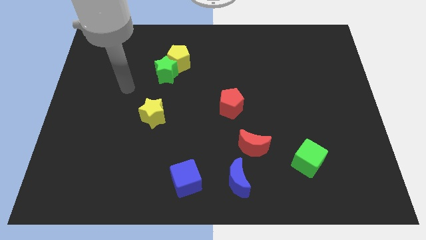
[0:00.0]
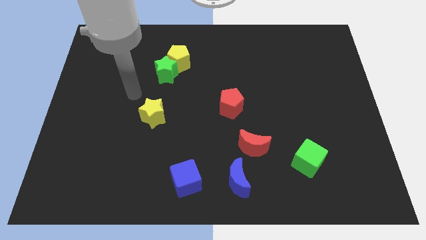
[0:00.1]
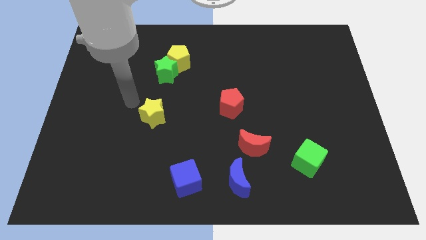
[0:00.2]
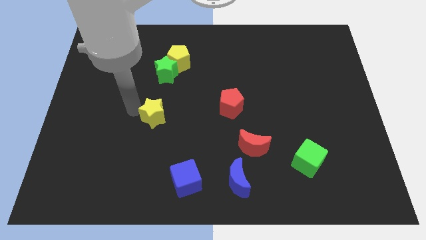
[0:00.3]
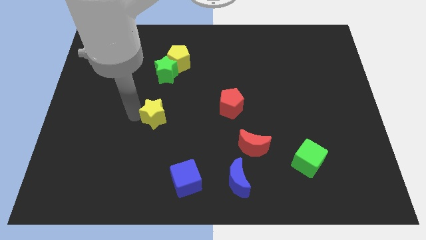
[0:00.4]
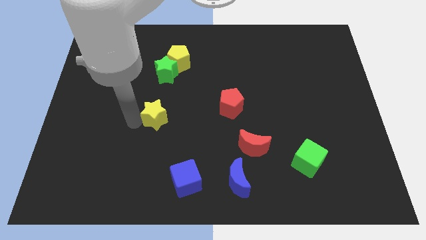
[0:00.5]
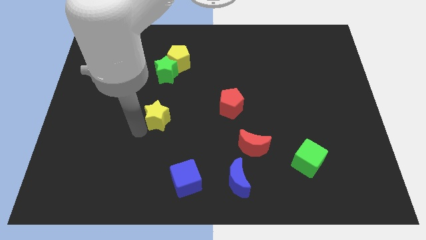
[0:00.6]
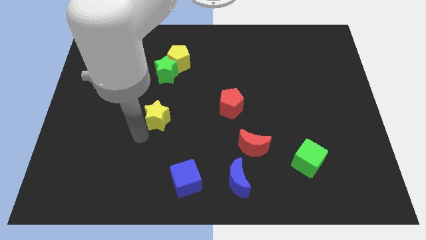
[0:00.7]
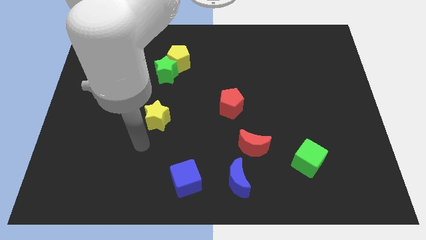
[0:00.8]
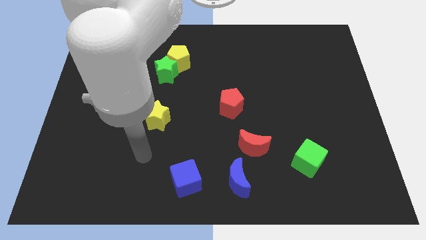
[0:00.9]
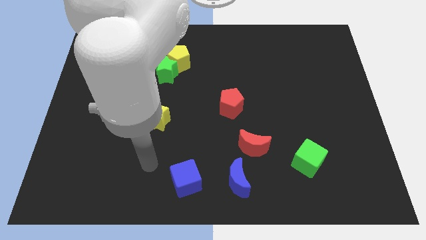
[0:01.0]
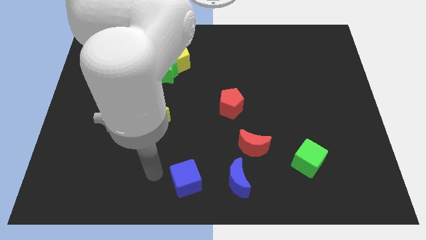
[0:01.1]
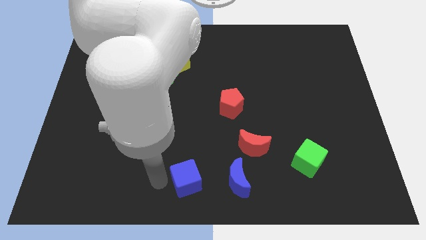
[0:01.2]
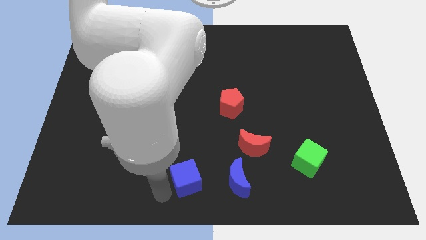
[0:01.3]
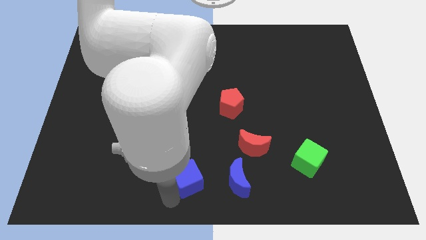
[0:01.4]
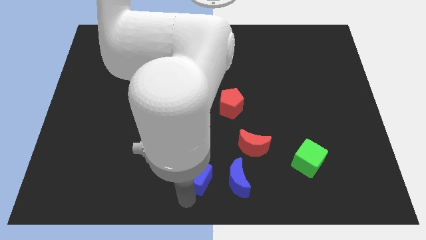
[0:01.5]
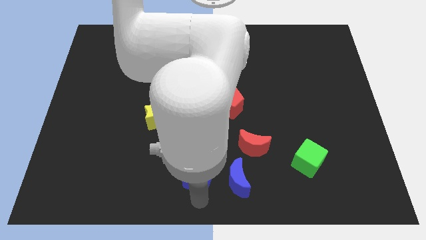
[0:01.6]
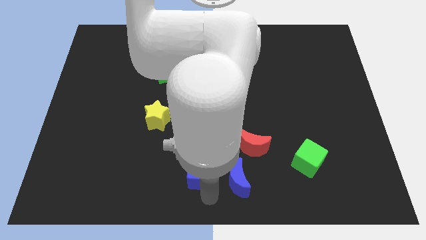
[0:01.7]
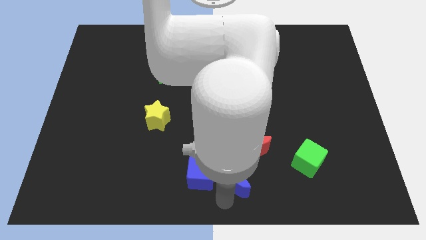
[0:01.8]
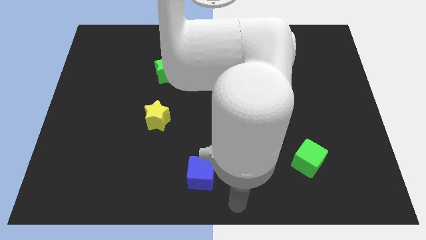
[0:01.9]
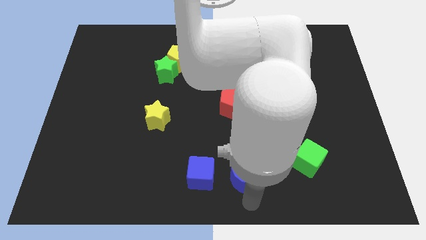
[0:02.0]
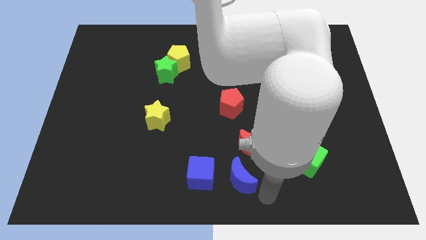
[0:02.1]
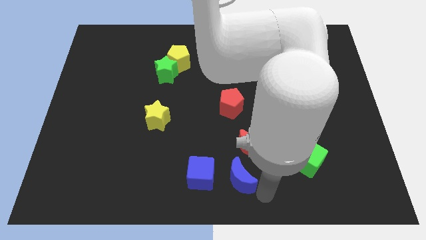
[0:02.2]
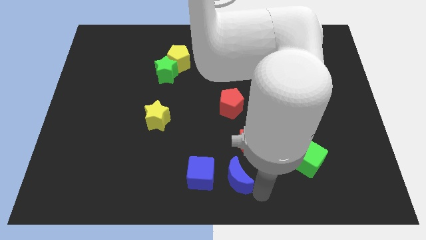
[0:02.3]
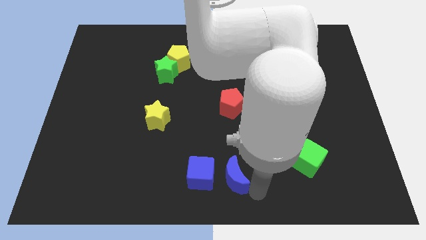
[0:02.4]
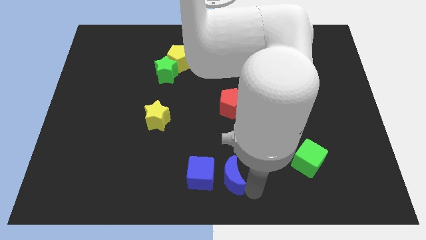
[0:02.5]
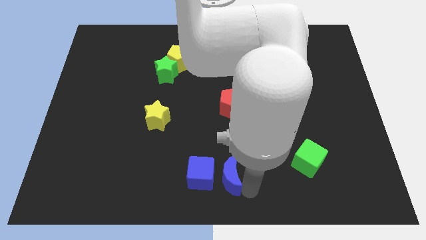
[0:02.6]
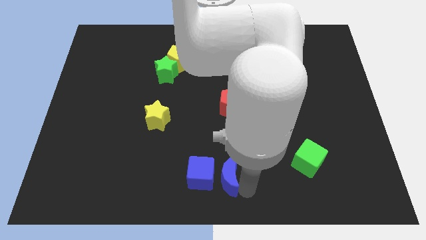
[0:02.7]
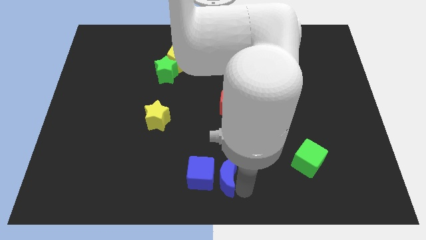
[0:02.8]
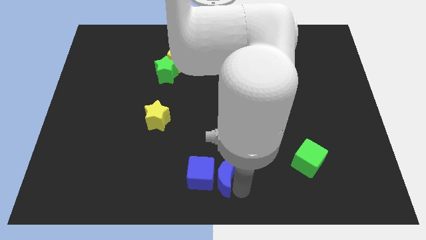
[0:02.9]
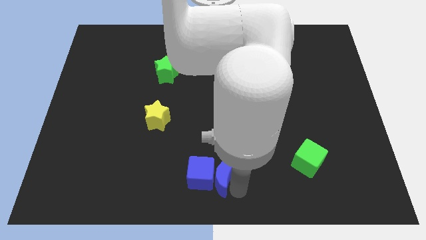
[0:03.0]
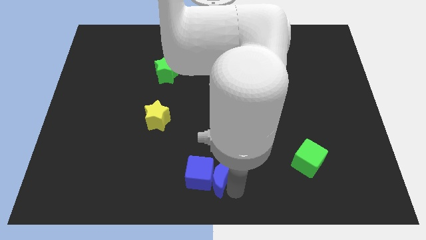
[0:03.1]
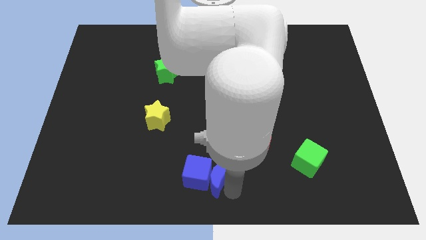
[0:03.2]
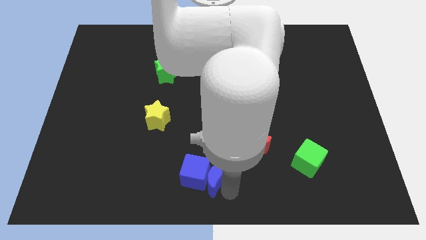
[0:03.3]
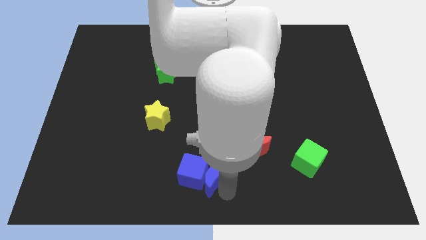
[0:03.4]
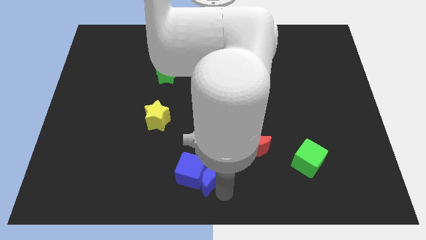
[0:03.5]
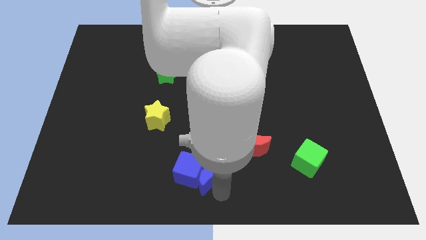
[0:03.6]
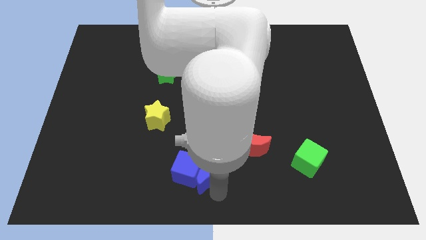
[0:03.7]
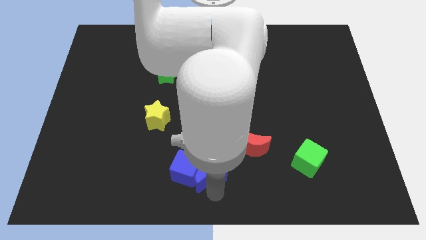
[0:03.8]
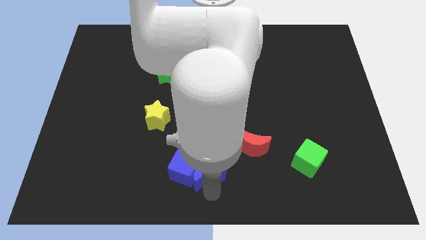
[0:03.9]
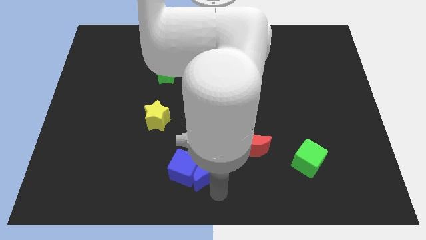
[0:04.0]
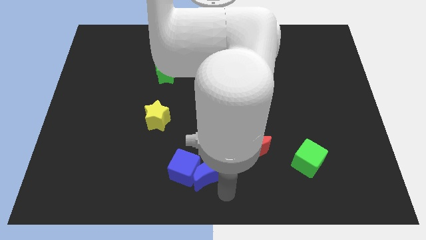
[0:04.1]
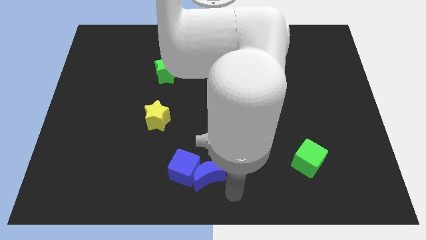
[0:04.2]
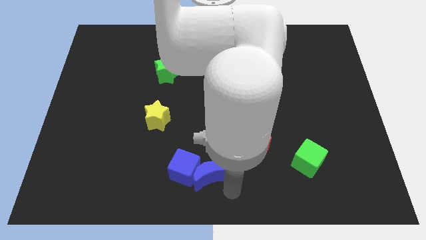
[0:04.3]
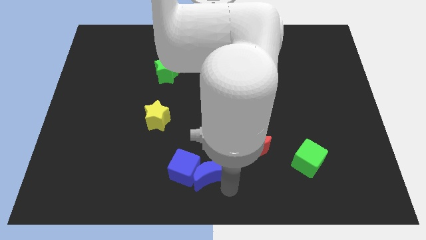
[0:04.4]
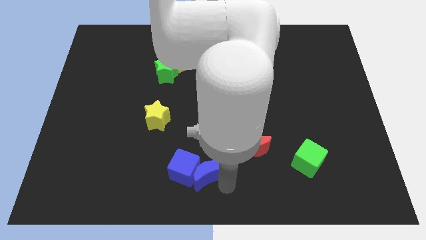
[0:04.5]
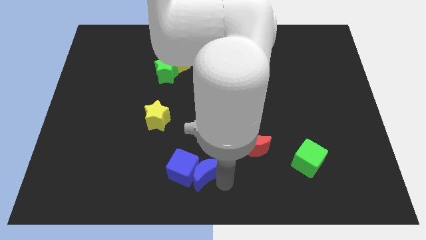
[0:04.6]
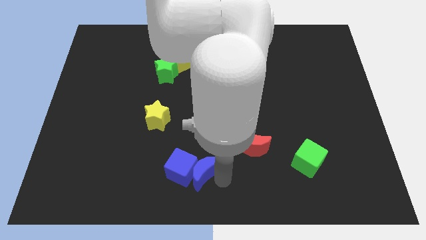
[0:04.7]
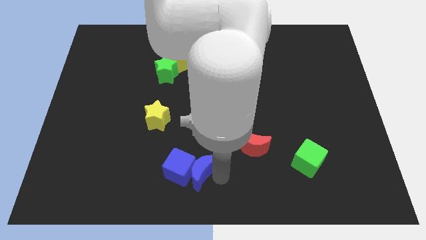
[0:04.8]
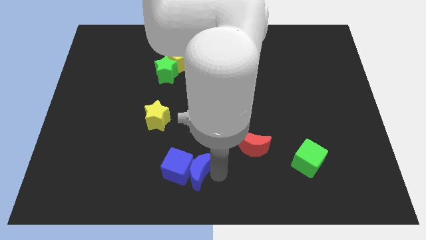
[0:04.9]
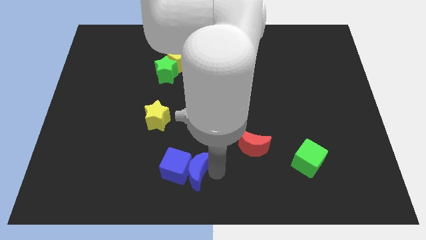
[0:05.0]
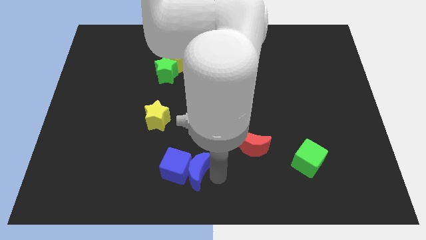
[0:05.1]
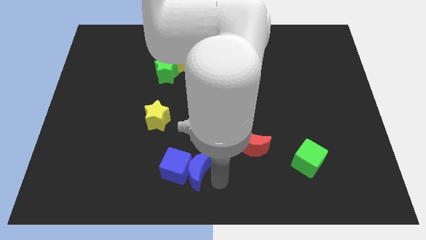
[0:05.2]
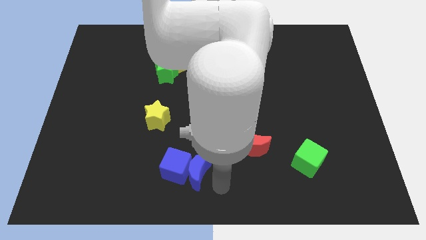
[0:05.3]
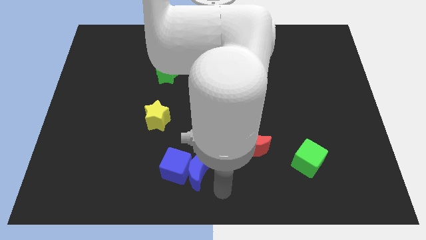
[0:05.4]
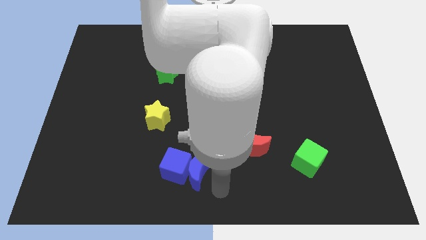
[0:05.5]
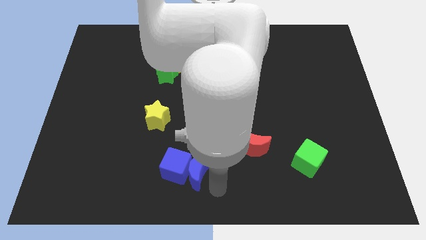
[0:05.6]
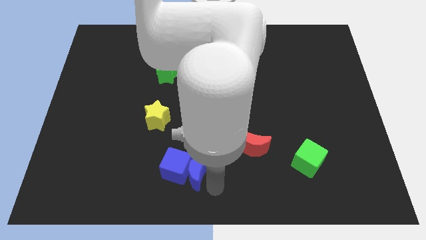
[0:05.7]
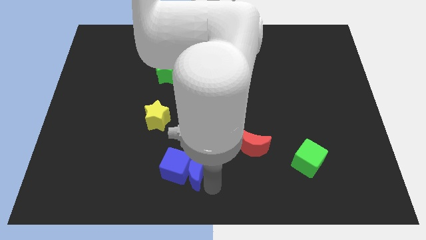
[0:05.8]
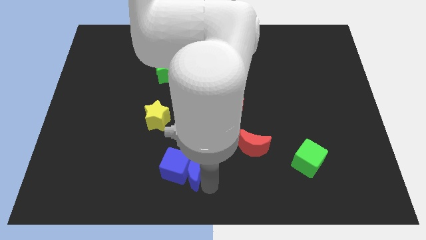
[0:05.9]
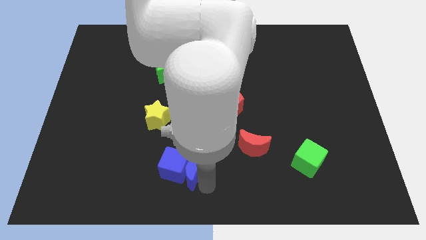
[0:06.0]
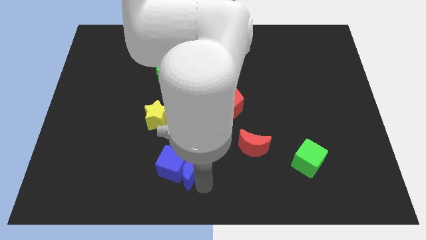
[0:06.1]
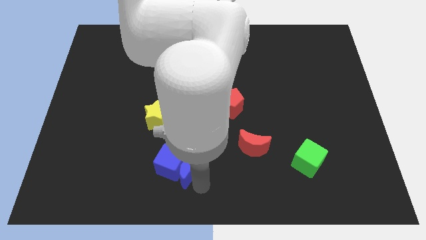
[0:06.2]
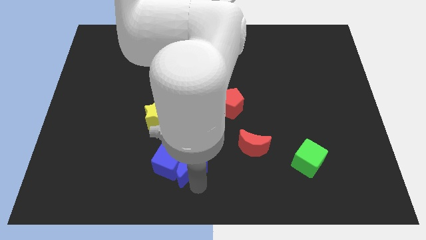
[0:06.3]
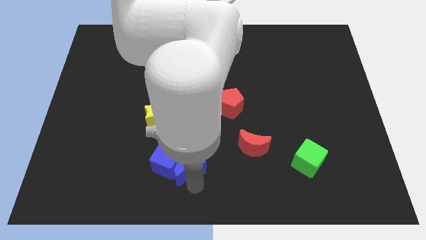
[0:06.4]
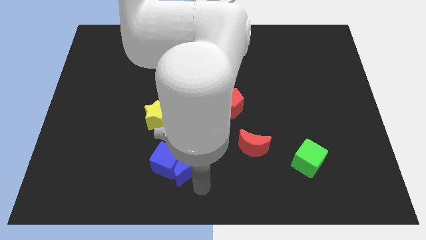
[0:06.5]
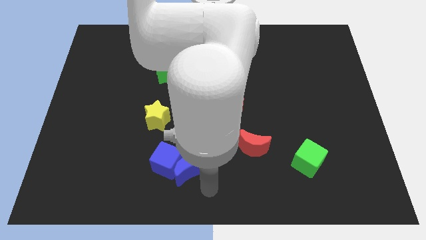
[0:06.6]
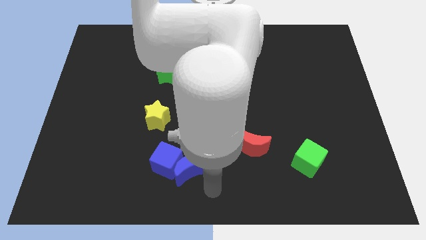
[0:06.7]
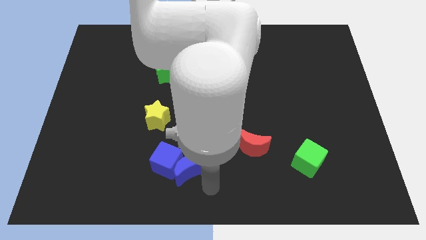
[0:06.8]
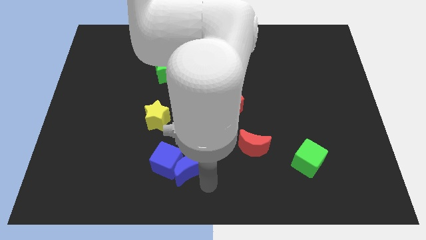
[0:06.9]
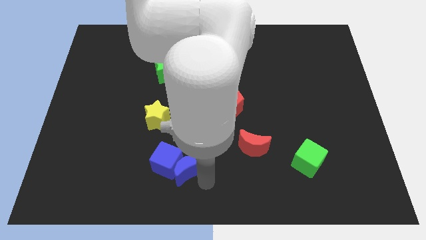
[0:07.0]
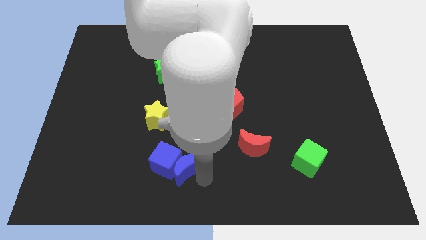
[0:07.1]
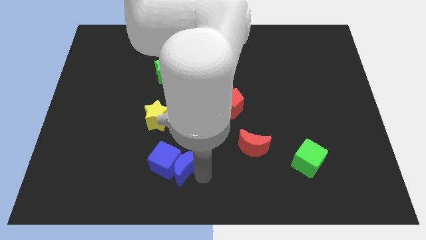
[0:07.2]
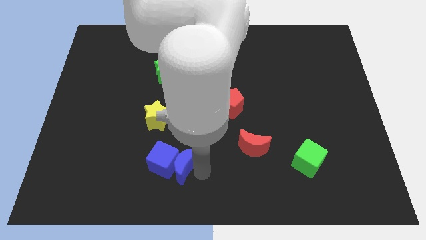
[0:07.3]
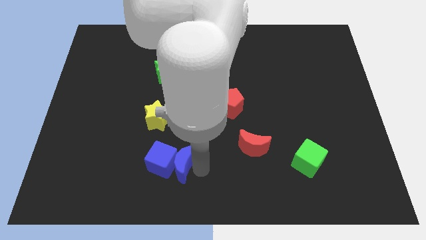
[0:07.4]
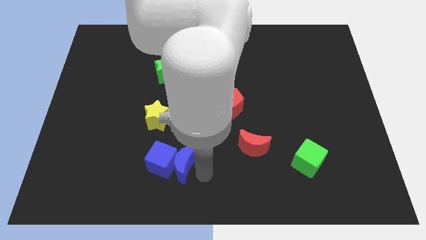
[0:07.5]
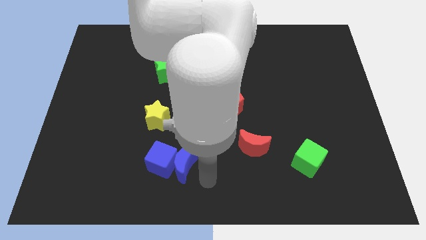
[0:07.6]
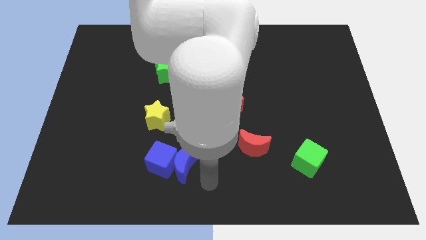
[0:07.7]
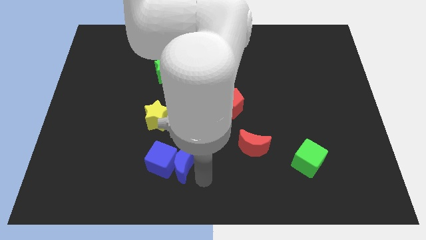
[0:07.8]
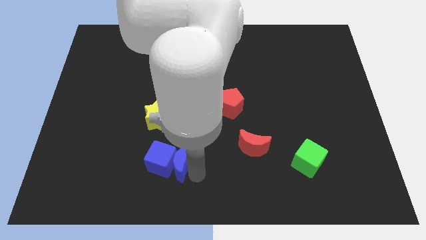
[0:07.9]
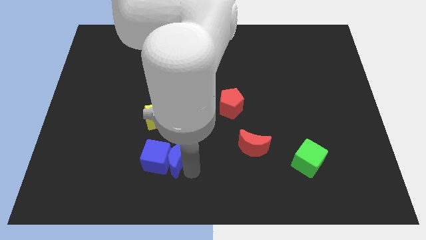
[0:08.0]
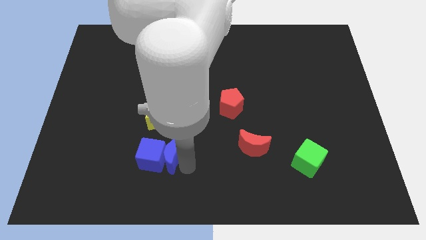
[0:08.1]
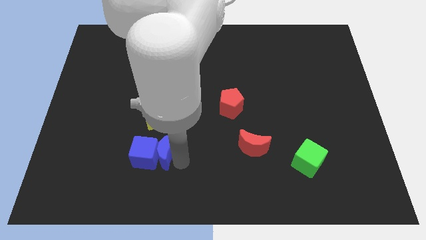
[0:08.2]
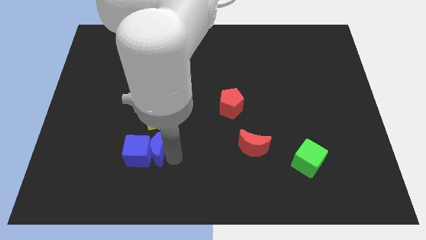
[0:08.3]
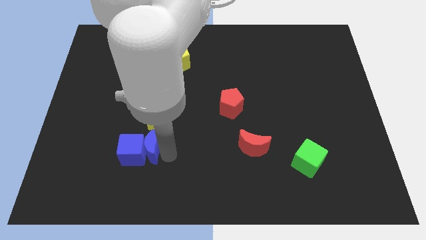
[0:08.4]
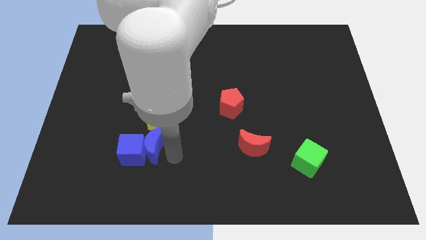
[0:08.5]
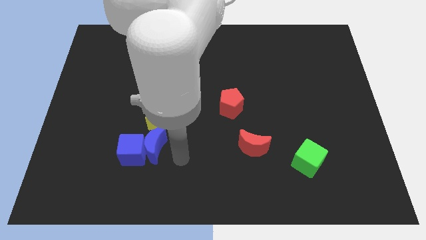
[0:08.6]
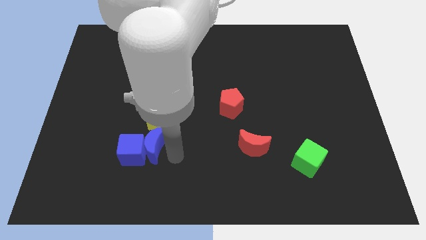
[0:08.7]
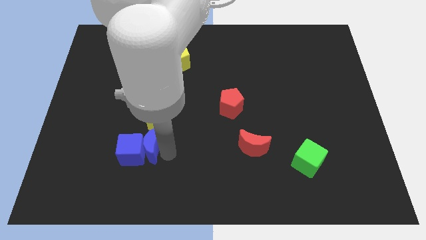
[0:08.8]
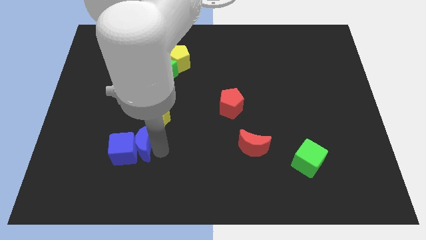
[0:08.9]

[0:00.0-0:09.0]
slide the blue moon diagonally down and to the left of the yellow star
